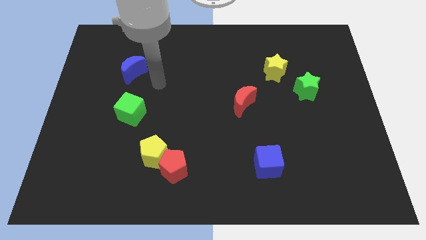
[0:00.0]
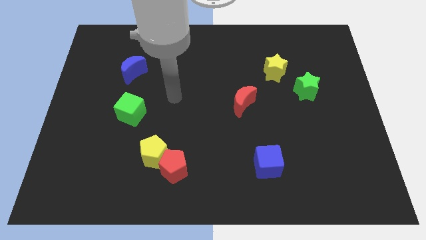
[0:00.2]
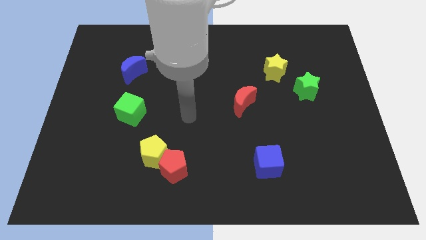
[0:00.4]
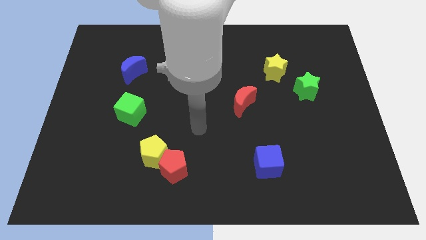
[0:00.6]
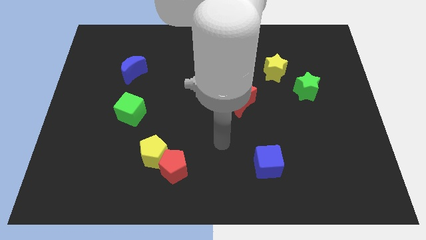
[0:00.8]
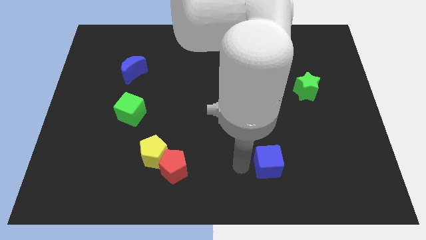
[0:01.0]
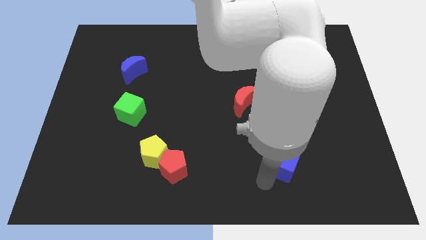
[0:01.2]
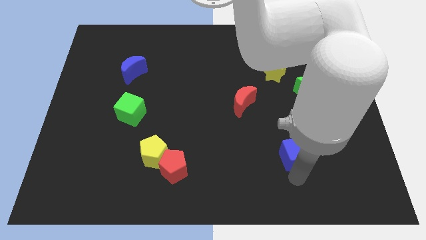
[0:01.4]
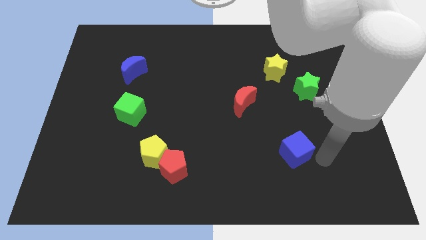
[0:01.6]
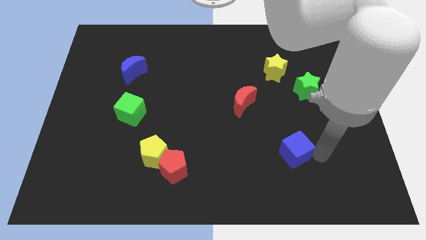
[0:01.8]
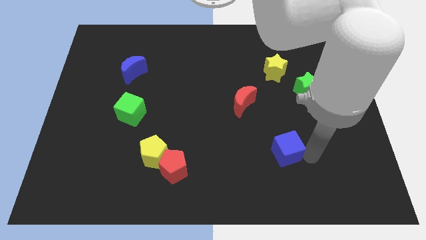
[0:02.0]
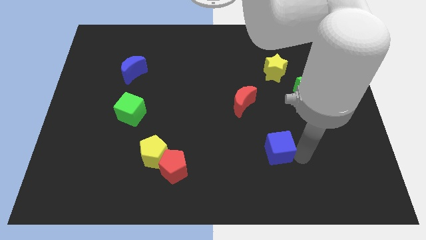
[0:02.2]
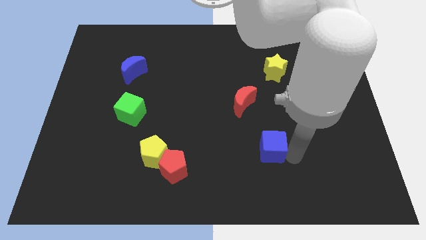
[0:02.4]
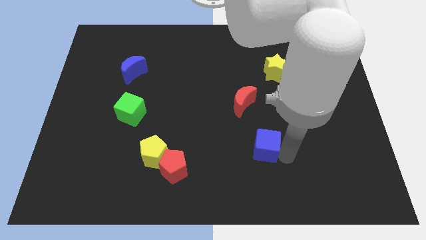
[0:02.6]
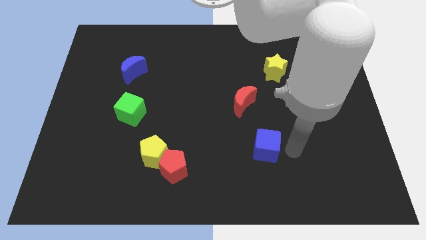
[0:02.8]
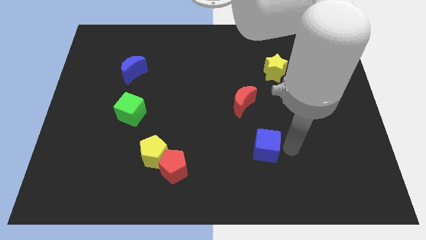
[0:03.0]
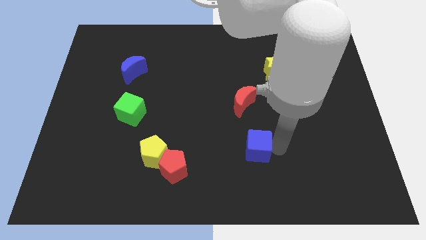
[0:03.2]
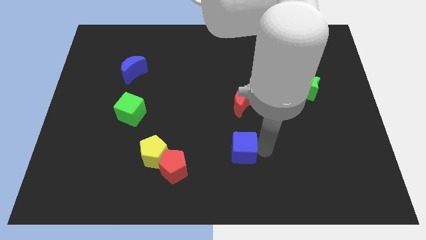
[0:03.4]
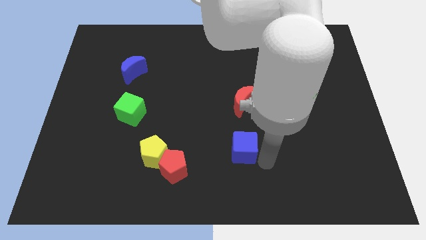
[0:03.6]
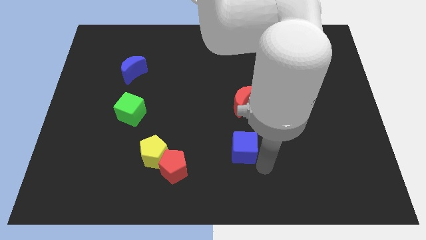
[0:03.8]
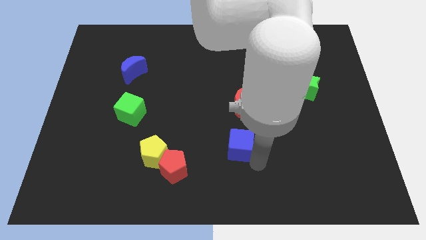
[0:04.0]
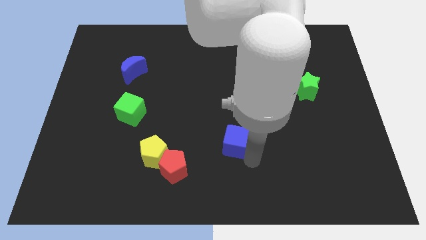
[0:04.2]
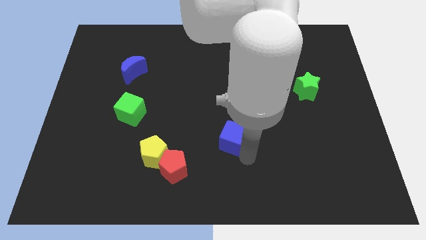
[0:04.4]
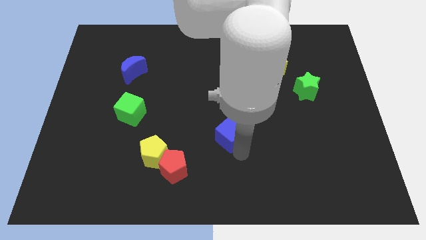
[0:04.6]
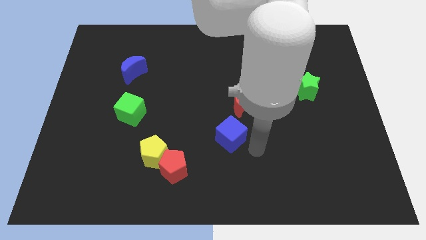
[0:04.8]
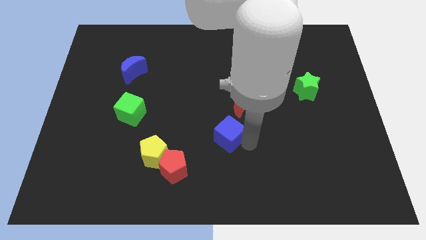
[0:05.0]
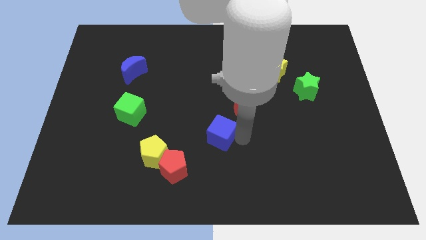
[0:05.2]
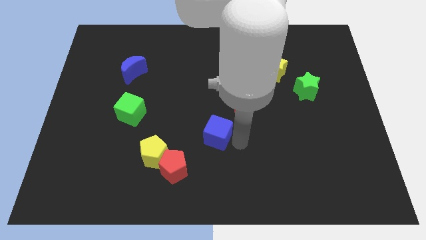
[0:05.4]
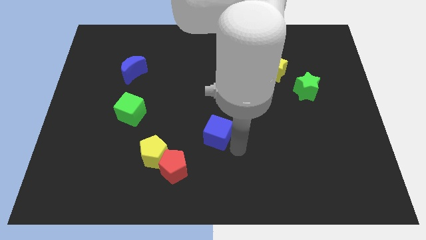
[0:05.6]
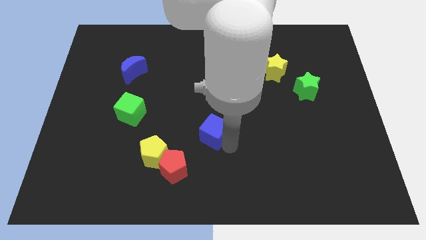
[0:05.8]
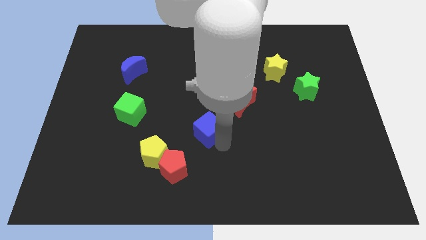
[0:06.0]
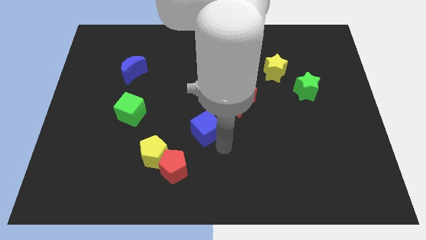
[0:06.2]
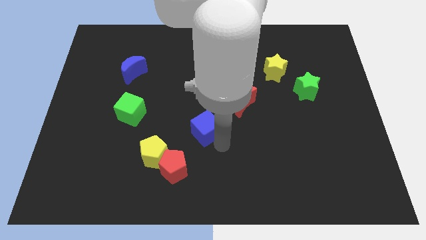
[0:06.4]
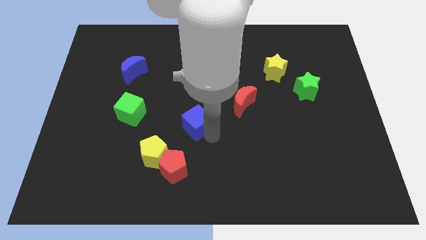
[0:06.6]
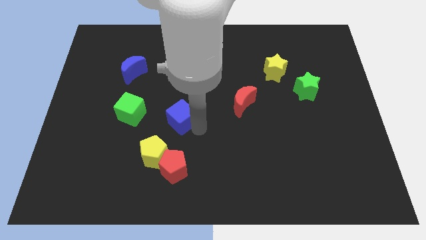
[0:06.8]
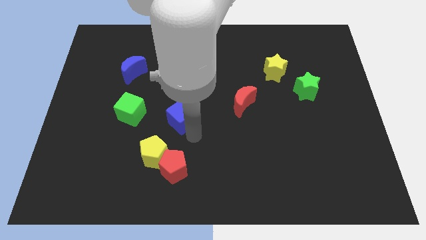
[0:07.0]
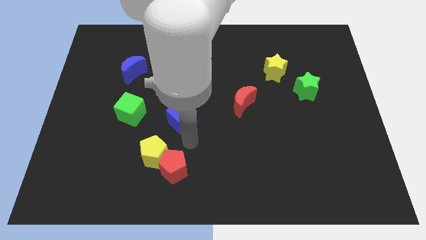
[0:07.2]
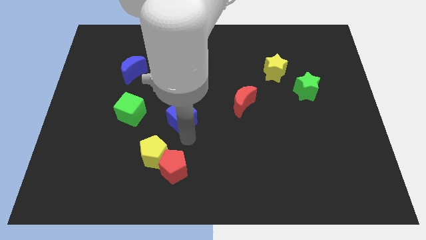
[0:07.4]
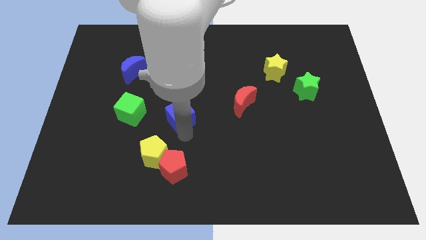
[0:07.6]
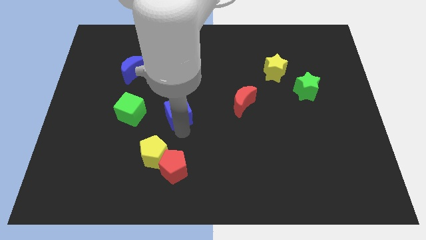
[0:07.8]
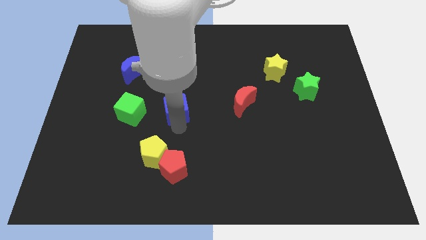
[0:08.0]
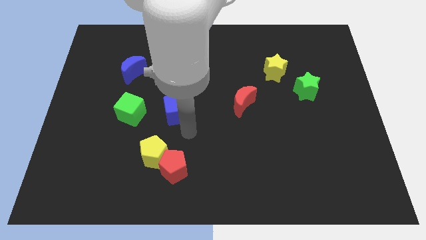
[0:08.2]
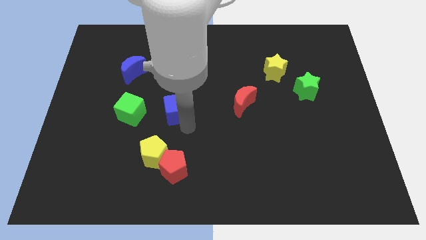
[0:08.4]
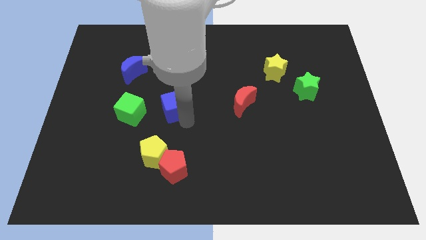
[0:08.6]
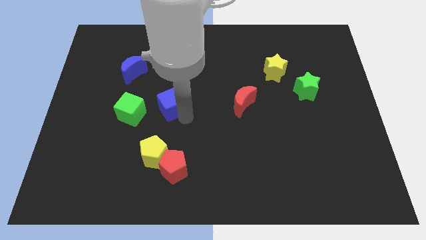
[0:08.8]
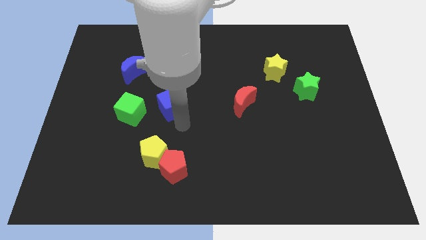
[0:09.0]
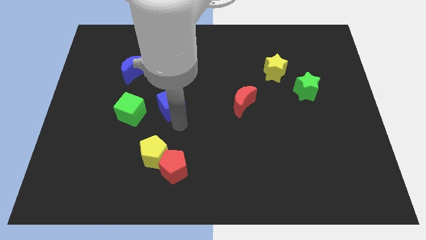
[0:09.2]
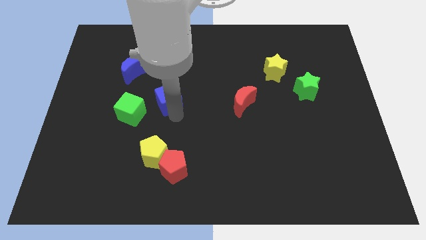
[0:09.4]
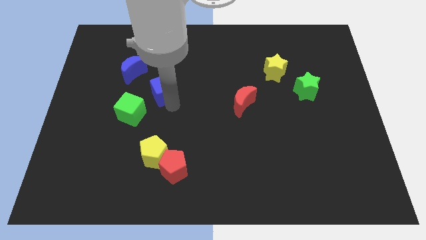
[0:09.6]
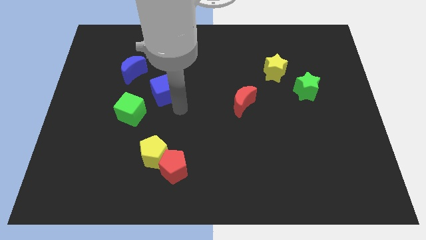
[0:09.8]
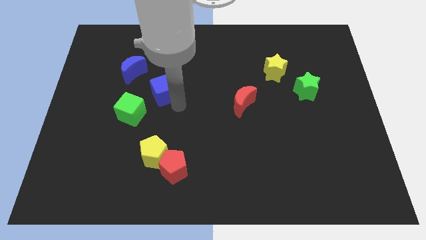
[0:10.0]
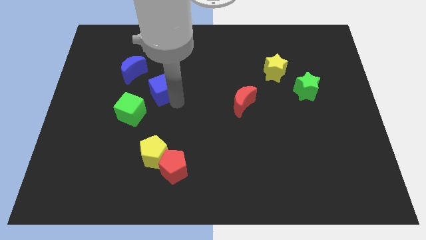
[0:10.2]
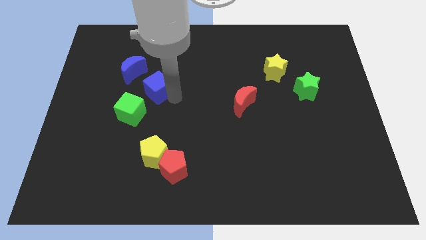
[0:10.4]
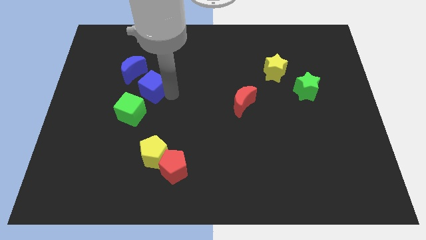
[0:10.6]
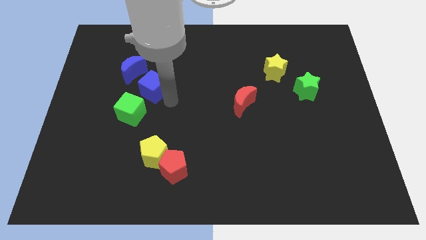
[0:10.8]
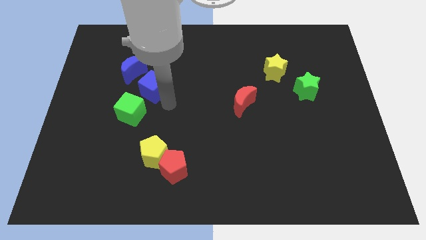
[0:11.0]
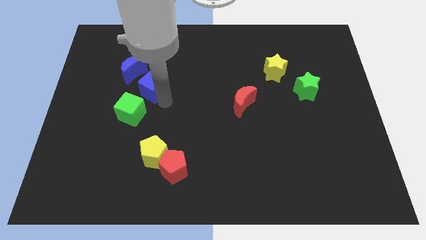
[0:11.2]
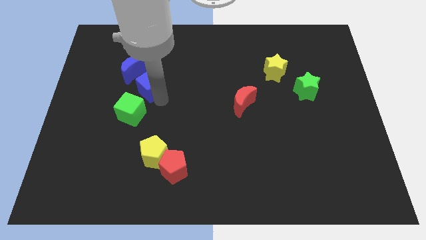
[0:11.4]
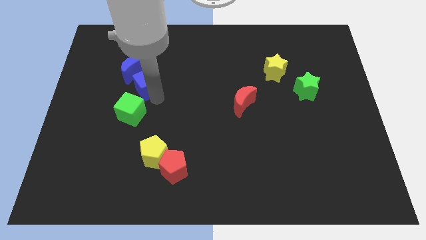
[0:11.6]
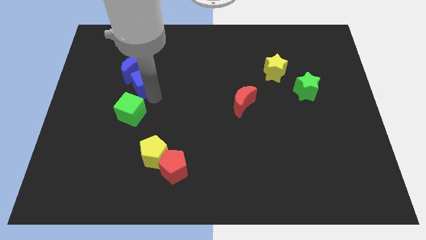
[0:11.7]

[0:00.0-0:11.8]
slide the blue cube next to the blue moon

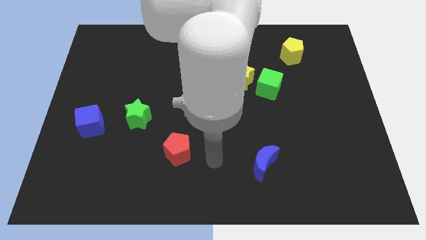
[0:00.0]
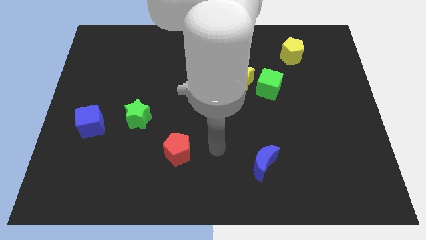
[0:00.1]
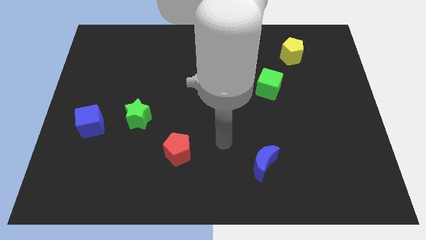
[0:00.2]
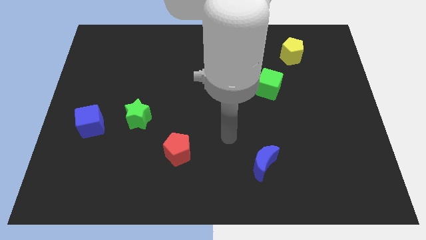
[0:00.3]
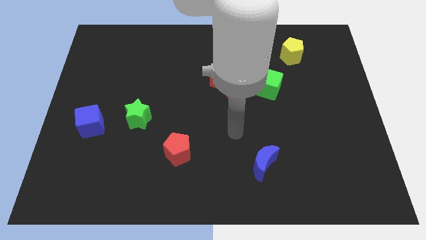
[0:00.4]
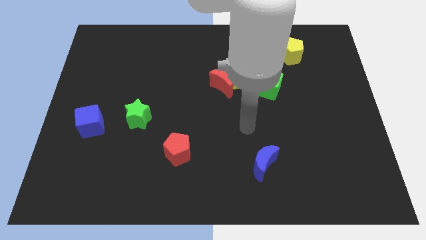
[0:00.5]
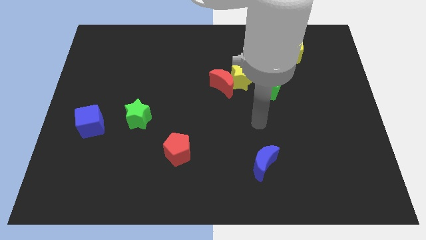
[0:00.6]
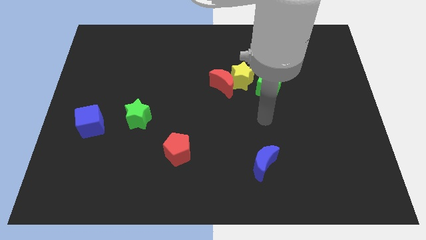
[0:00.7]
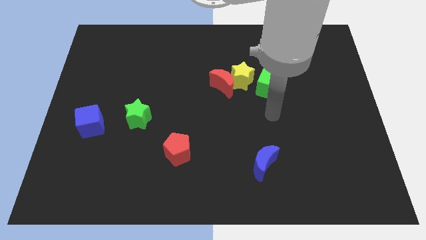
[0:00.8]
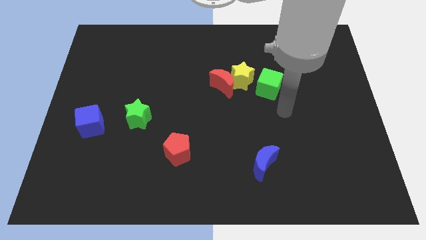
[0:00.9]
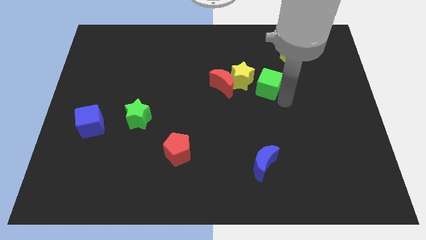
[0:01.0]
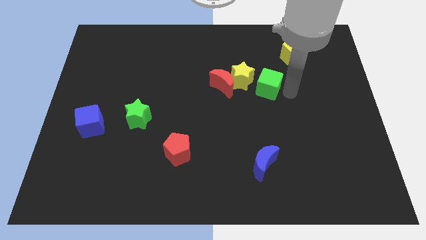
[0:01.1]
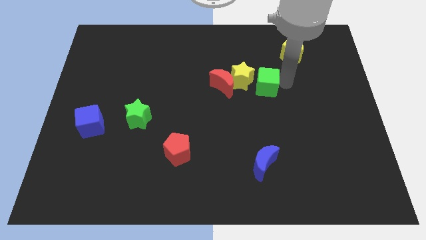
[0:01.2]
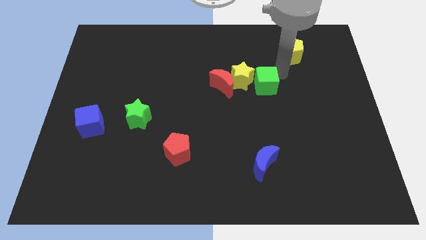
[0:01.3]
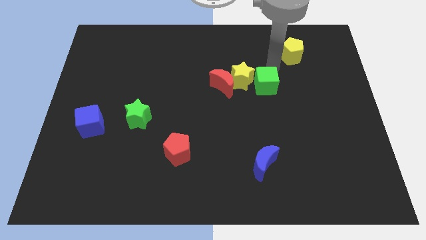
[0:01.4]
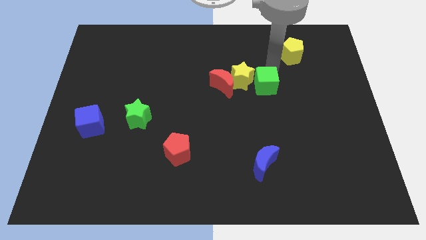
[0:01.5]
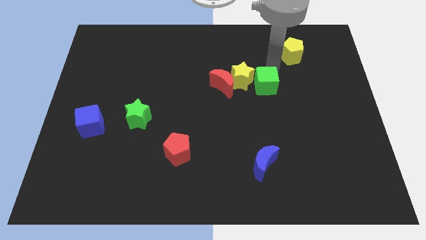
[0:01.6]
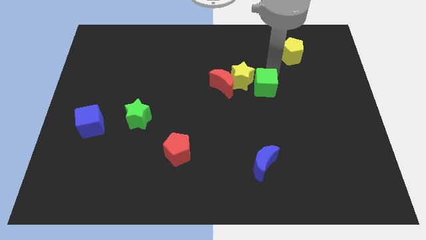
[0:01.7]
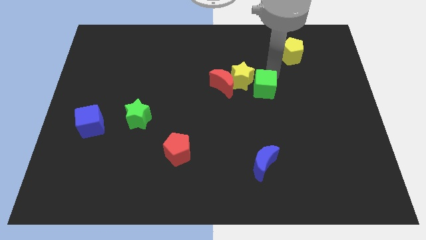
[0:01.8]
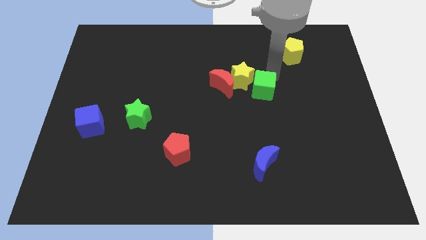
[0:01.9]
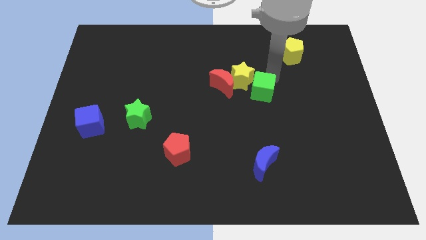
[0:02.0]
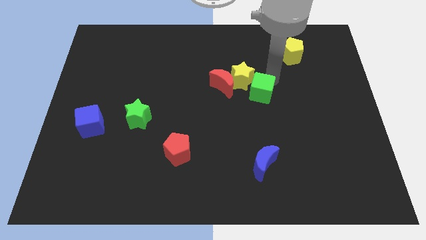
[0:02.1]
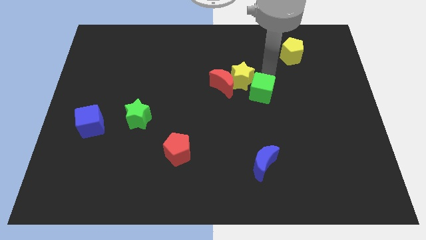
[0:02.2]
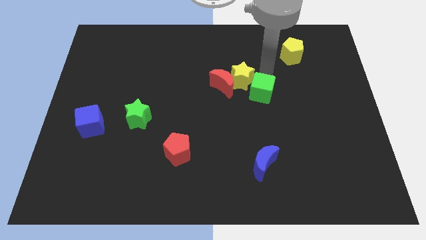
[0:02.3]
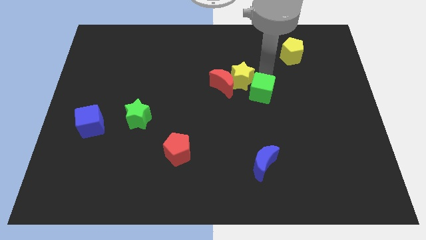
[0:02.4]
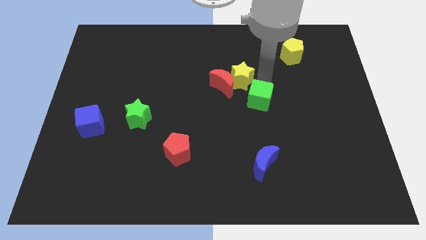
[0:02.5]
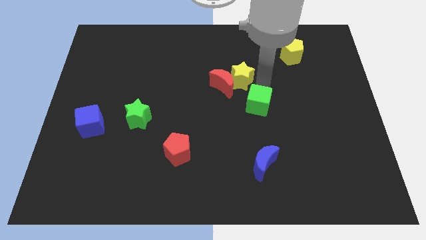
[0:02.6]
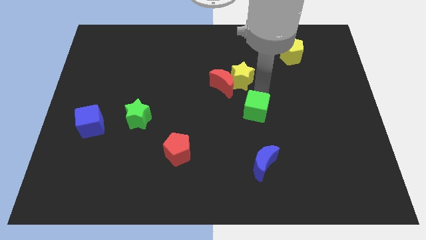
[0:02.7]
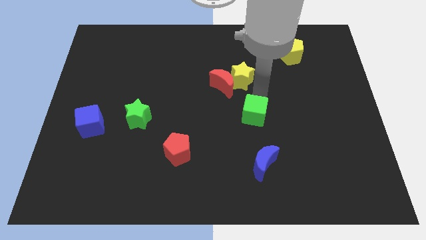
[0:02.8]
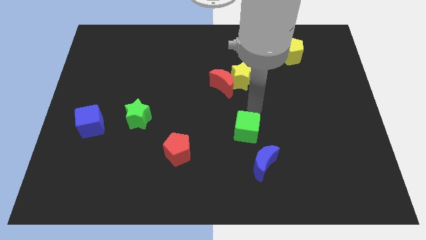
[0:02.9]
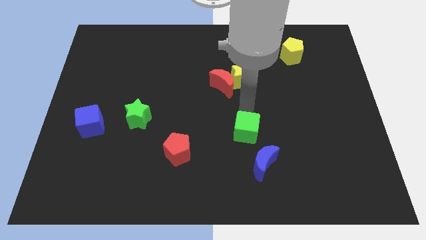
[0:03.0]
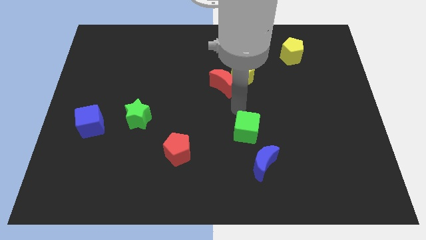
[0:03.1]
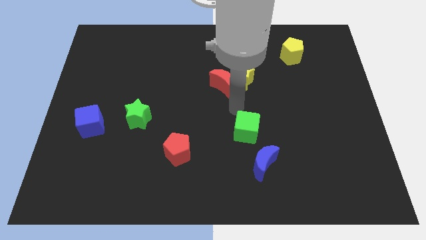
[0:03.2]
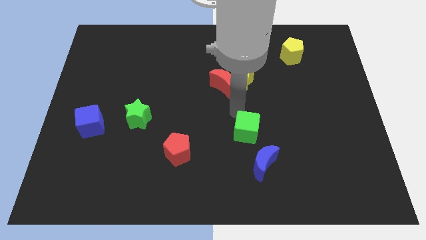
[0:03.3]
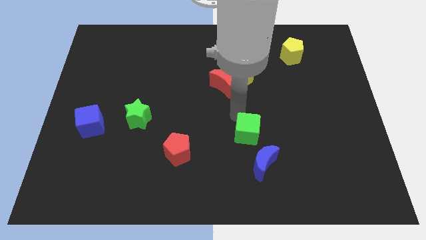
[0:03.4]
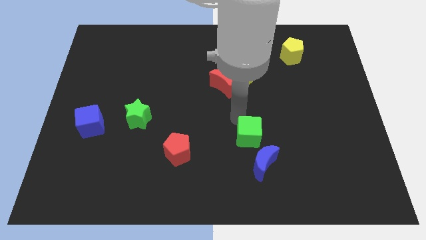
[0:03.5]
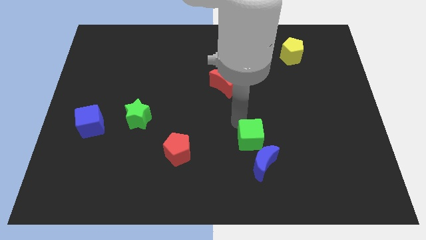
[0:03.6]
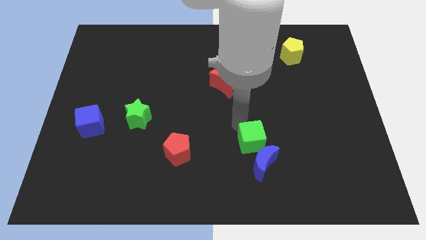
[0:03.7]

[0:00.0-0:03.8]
move the green cube close to the blue moon
